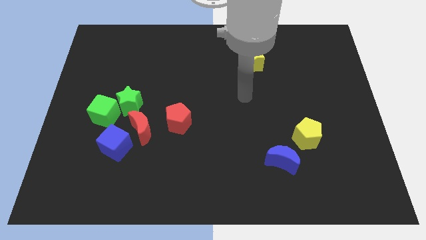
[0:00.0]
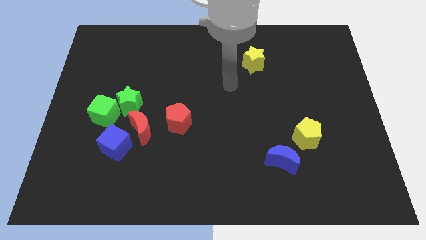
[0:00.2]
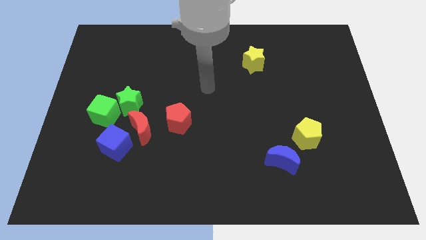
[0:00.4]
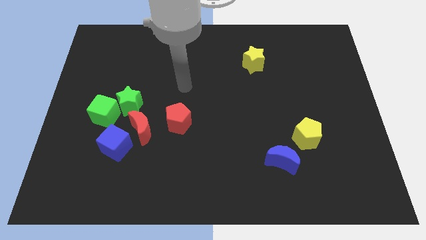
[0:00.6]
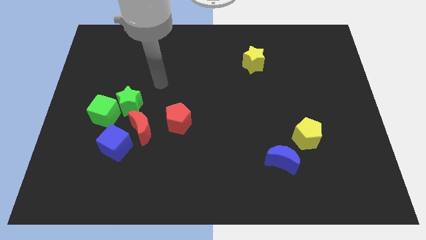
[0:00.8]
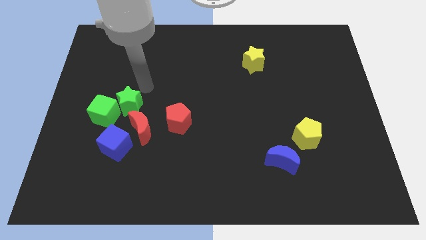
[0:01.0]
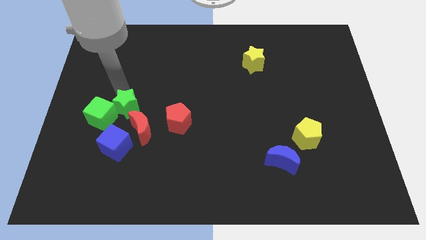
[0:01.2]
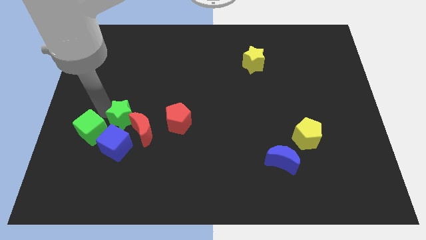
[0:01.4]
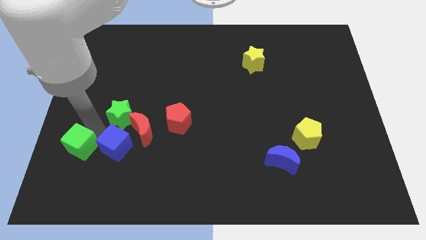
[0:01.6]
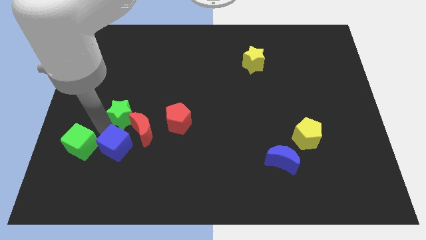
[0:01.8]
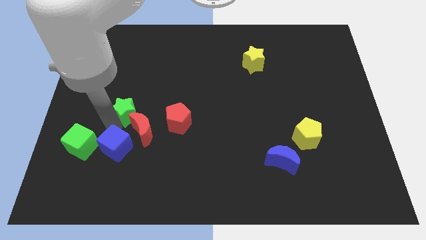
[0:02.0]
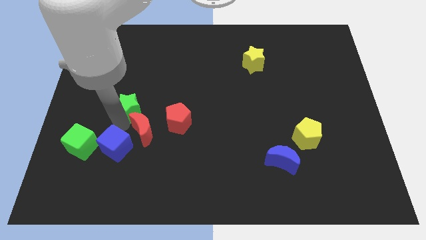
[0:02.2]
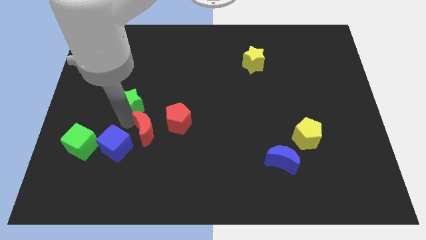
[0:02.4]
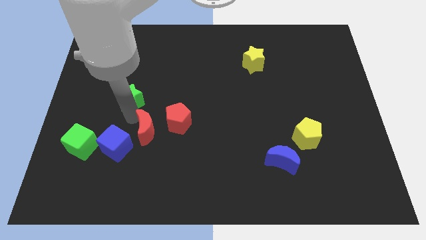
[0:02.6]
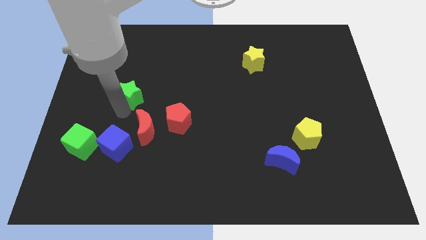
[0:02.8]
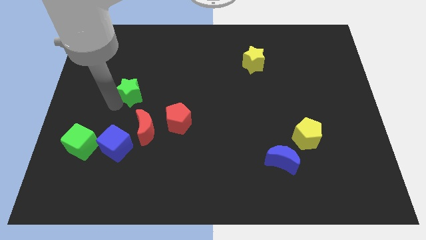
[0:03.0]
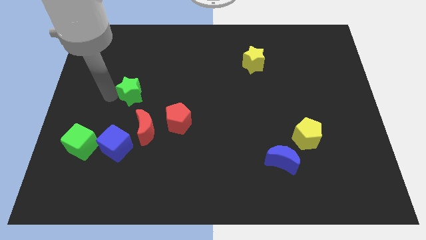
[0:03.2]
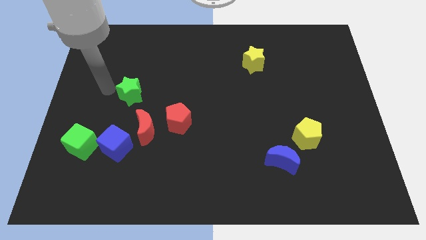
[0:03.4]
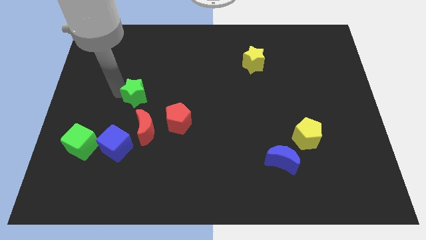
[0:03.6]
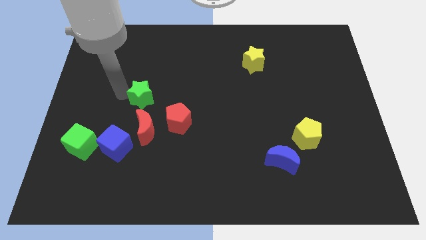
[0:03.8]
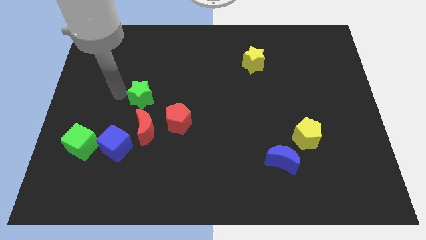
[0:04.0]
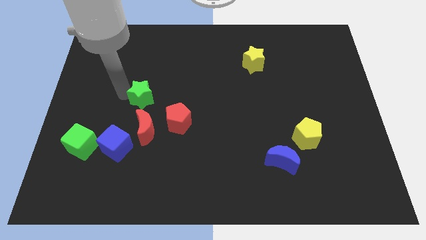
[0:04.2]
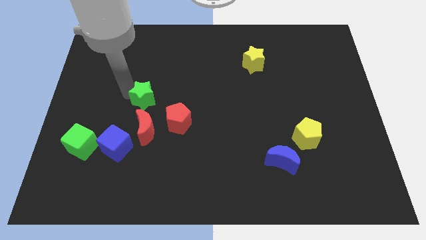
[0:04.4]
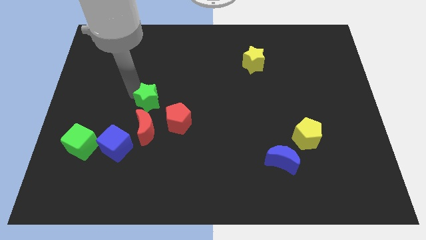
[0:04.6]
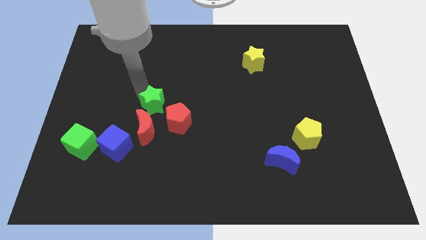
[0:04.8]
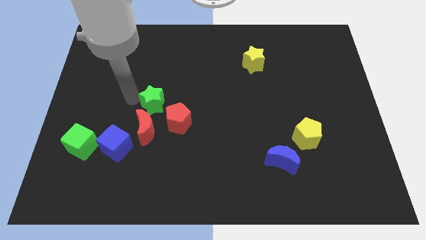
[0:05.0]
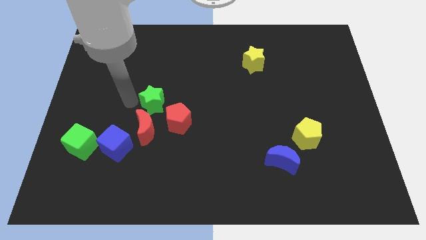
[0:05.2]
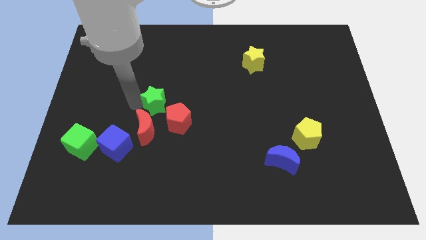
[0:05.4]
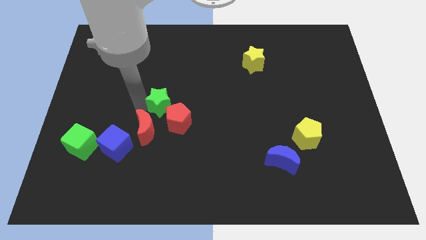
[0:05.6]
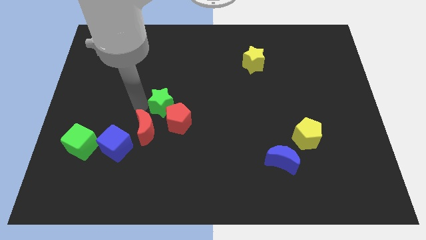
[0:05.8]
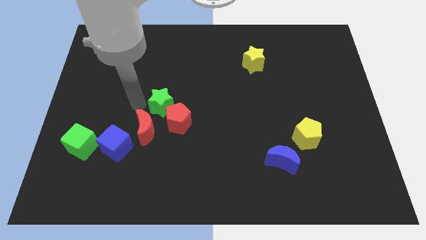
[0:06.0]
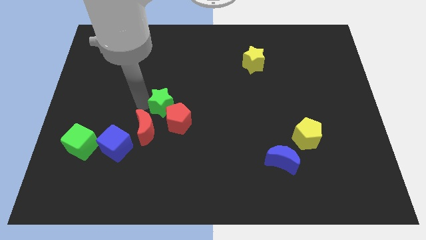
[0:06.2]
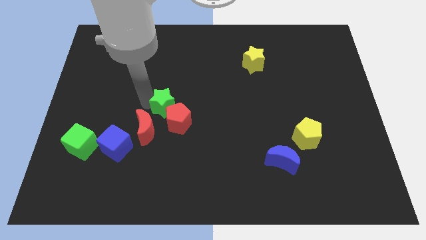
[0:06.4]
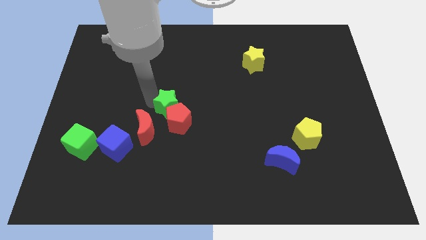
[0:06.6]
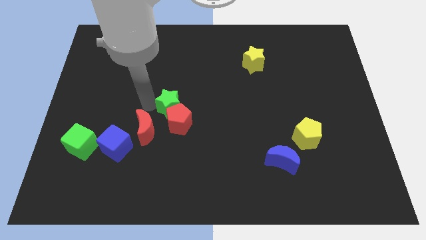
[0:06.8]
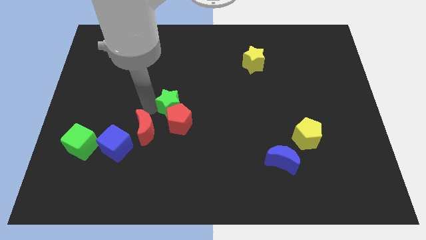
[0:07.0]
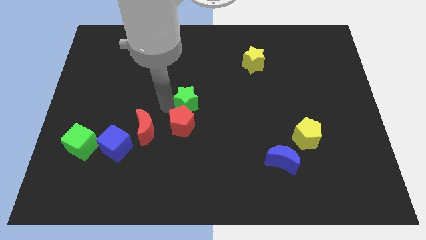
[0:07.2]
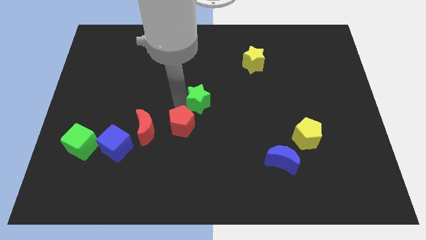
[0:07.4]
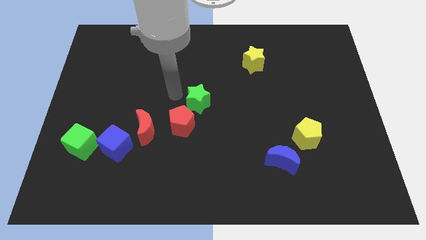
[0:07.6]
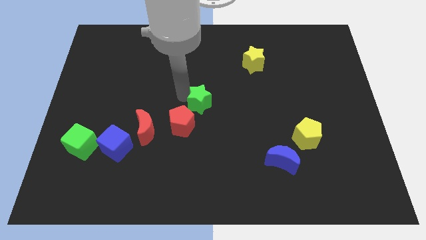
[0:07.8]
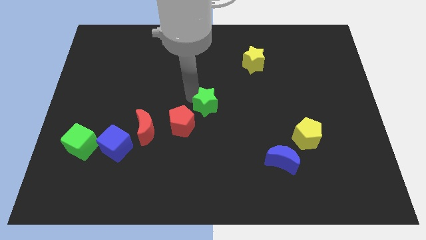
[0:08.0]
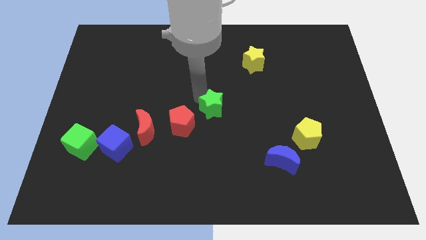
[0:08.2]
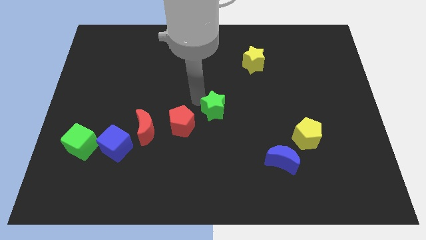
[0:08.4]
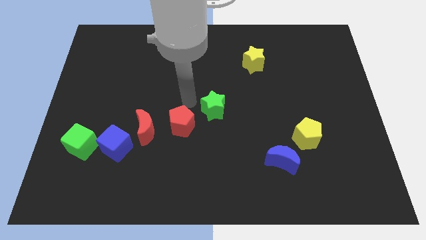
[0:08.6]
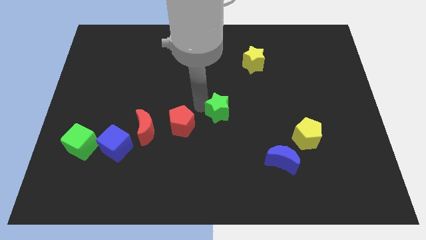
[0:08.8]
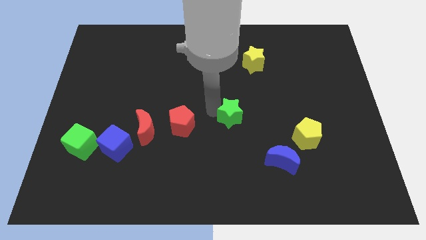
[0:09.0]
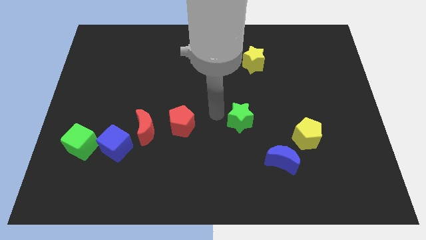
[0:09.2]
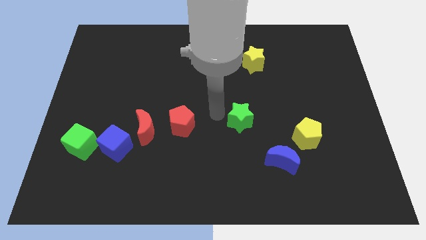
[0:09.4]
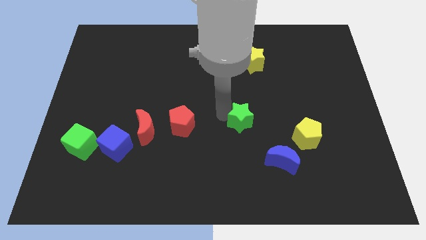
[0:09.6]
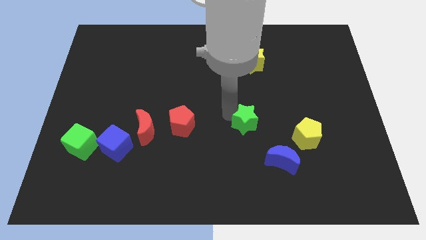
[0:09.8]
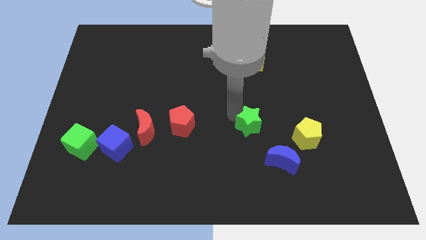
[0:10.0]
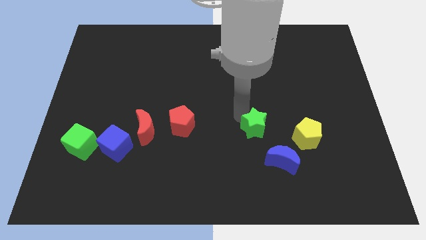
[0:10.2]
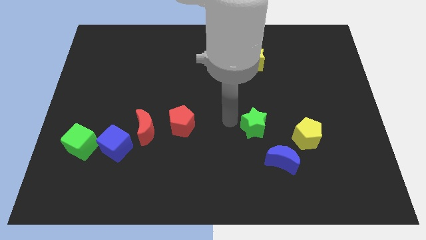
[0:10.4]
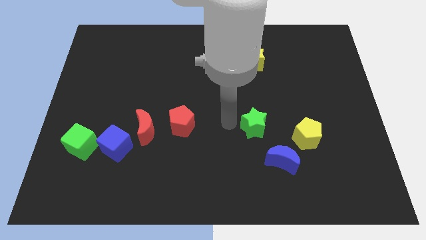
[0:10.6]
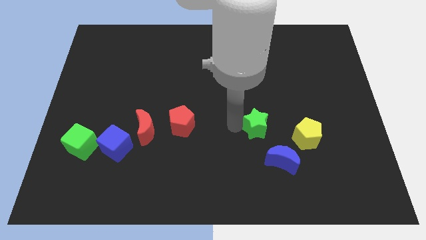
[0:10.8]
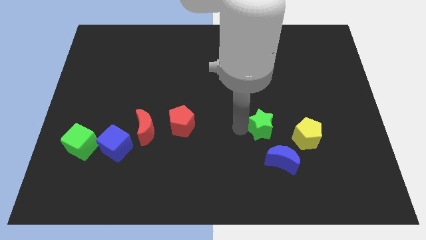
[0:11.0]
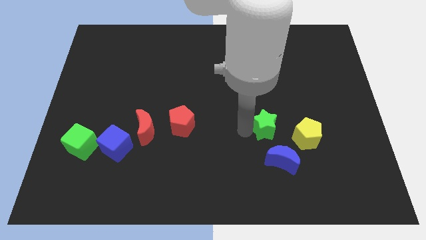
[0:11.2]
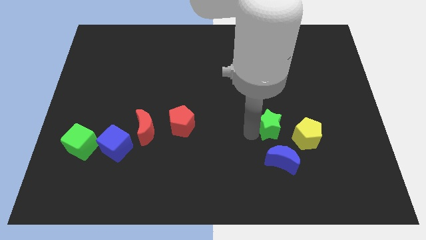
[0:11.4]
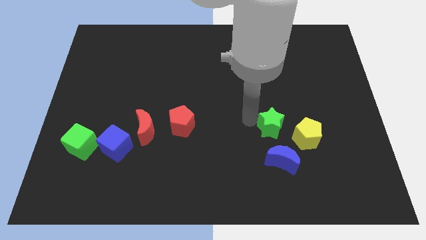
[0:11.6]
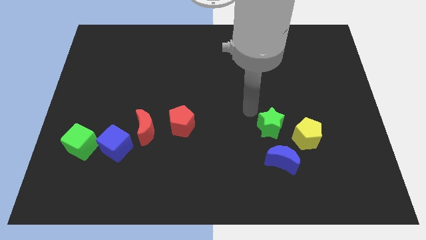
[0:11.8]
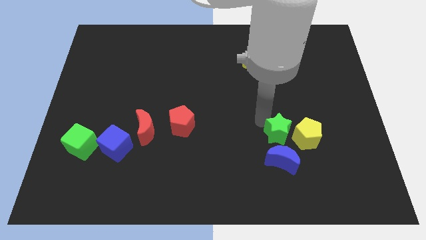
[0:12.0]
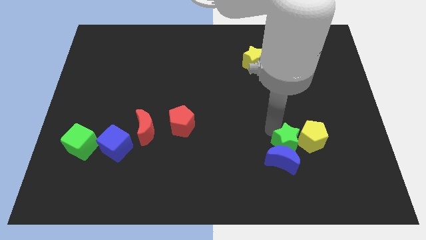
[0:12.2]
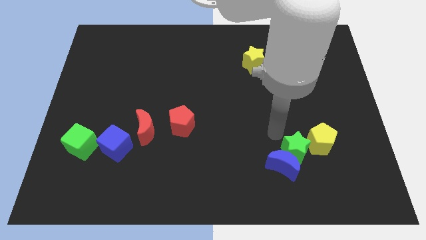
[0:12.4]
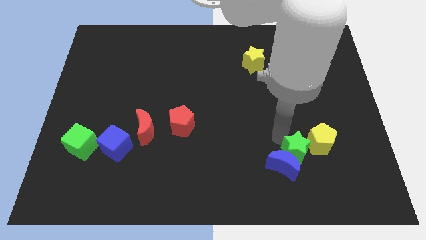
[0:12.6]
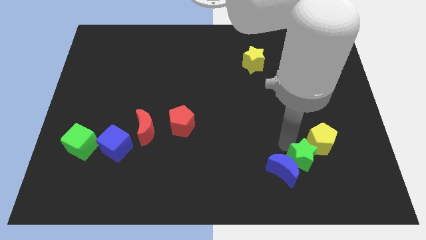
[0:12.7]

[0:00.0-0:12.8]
put the green star to the bottom of the yellow pentagon
